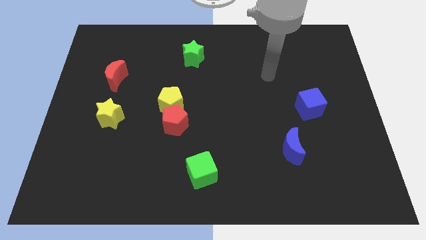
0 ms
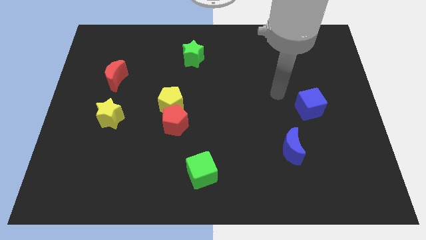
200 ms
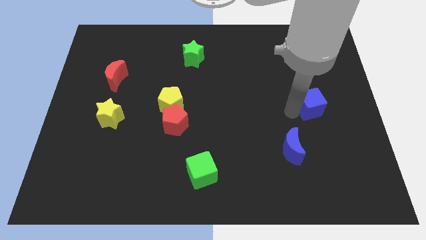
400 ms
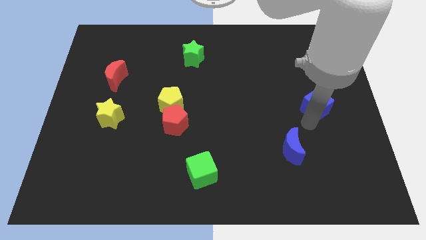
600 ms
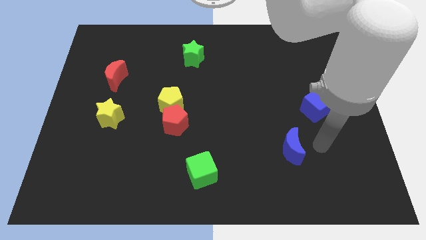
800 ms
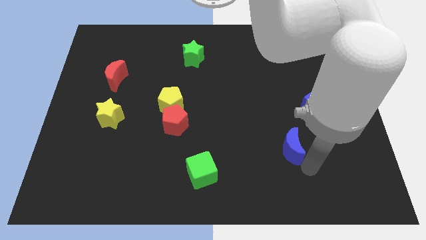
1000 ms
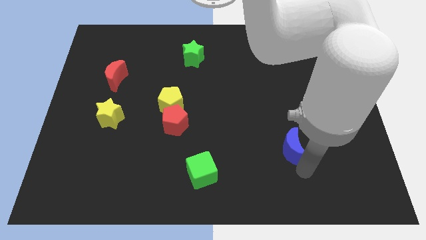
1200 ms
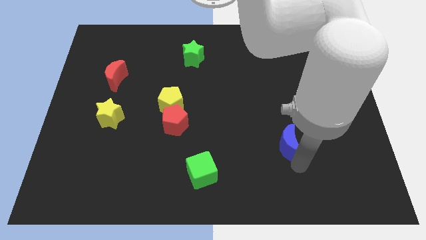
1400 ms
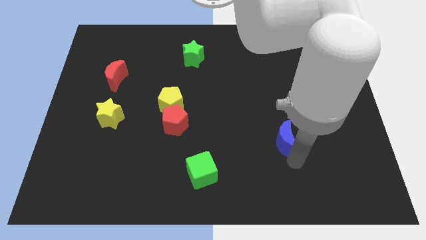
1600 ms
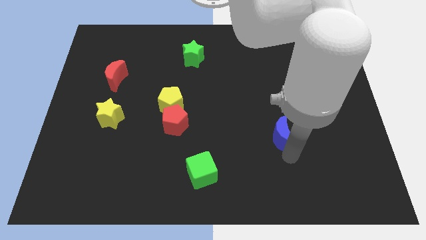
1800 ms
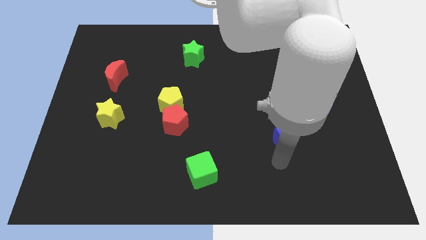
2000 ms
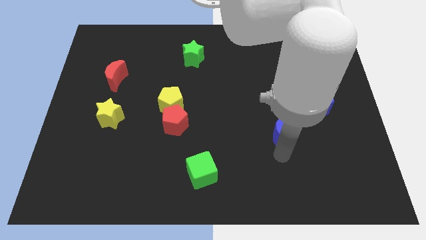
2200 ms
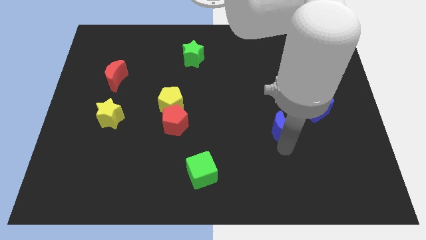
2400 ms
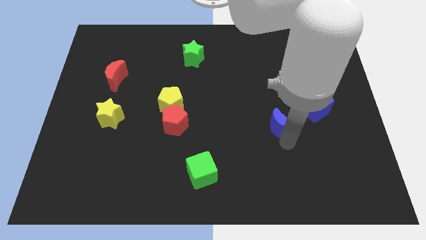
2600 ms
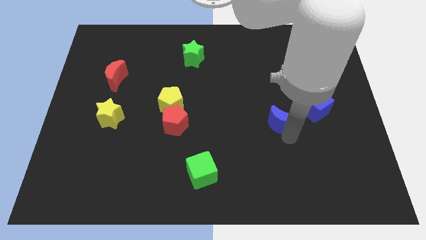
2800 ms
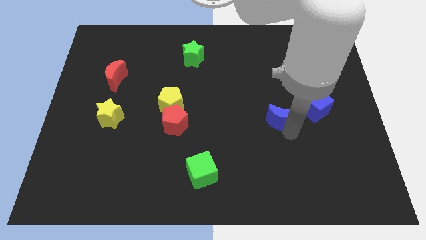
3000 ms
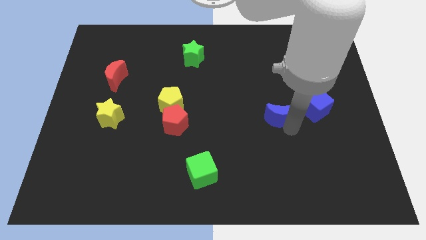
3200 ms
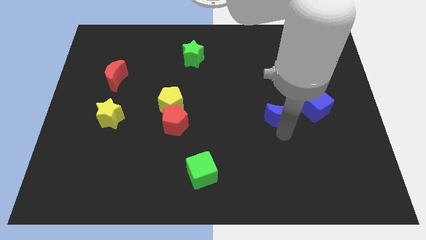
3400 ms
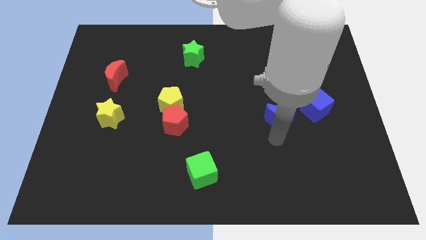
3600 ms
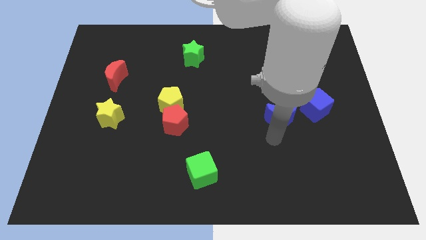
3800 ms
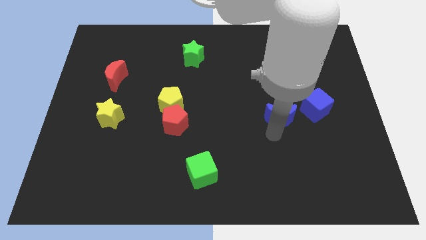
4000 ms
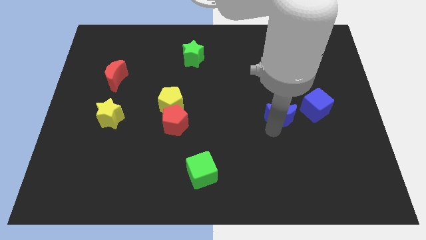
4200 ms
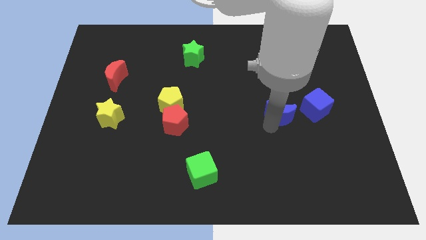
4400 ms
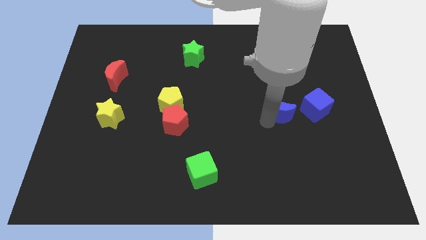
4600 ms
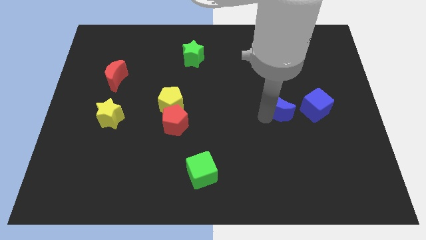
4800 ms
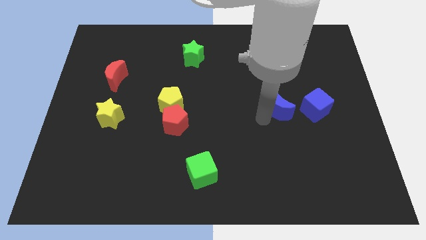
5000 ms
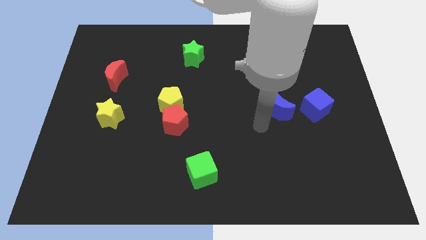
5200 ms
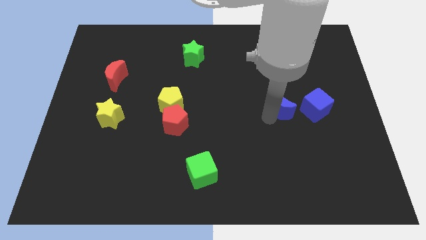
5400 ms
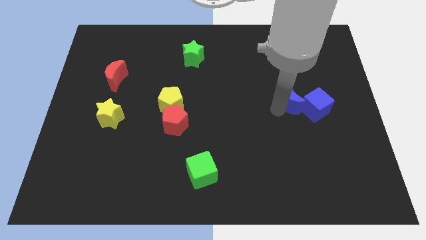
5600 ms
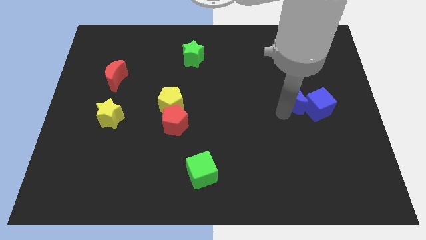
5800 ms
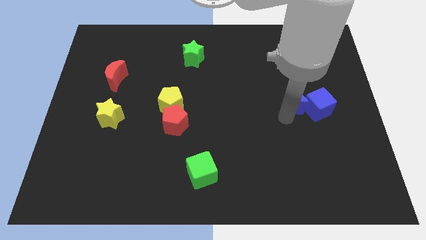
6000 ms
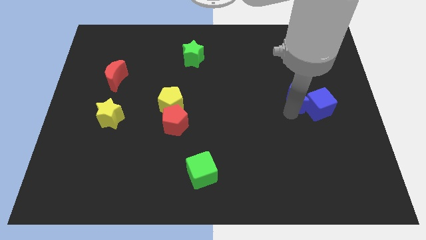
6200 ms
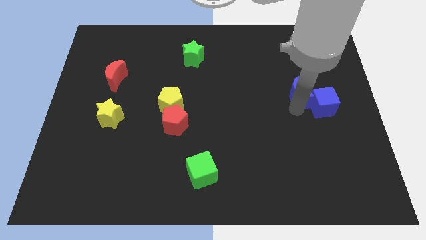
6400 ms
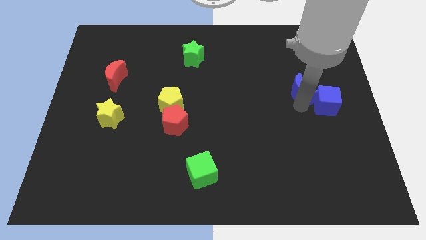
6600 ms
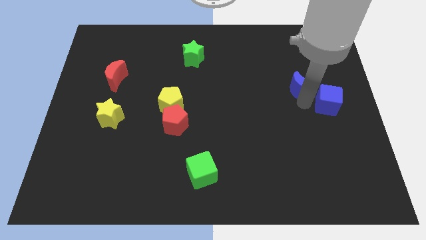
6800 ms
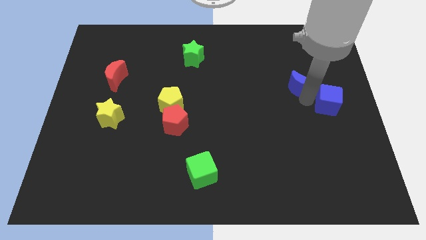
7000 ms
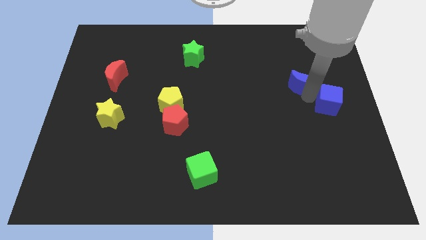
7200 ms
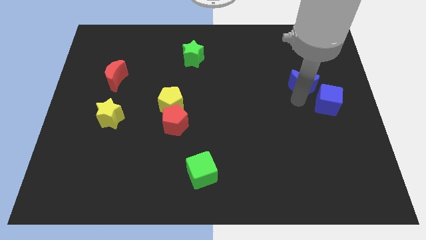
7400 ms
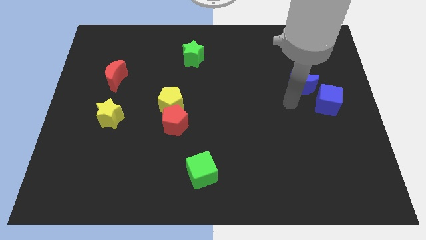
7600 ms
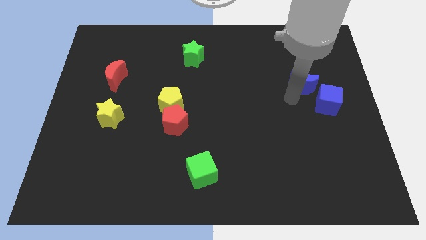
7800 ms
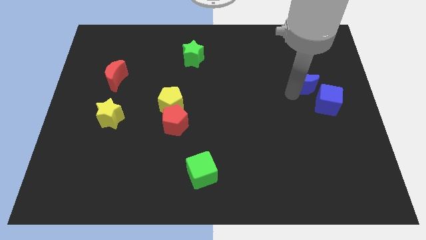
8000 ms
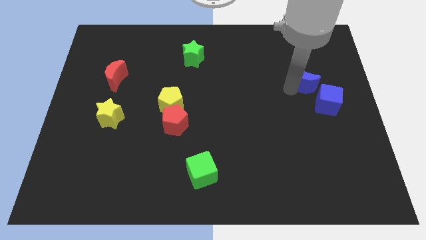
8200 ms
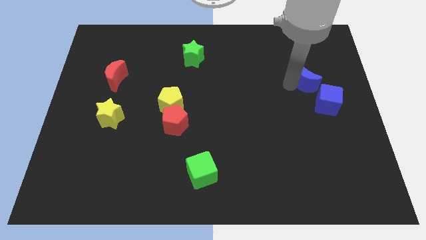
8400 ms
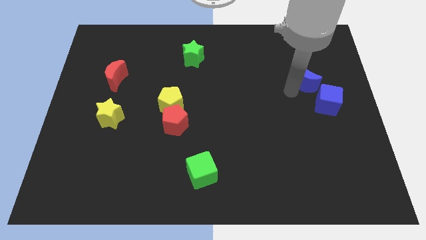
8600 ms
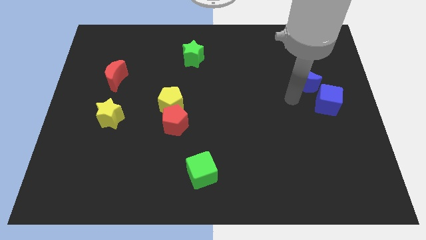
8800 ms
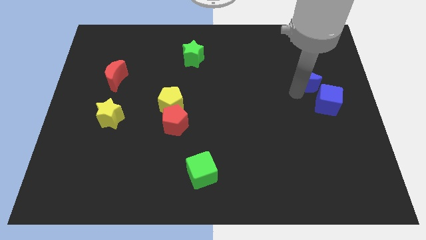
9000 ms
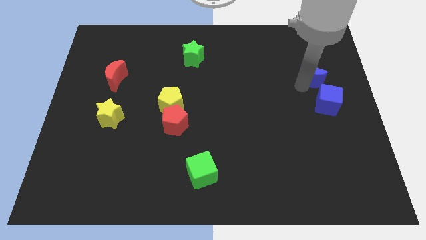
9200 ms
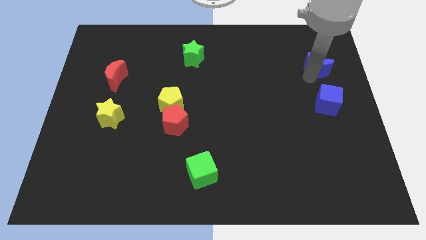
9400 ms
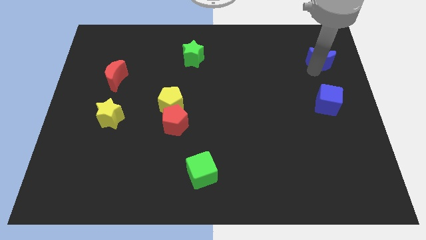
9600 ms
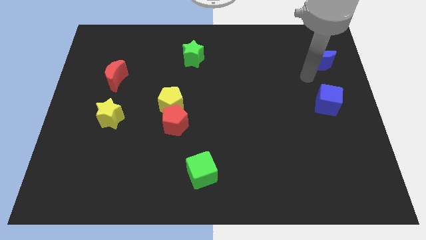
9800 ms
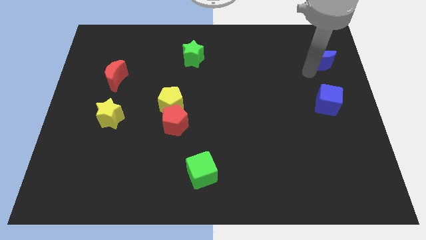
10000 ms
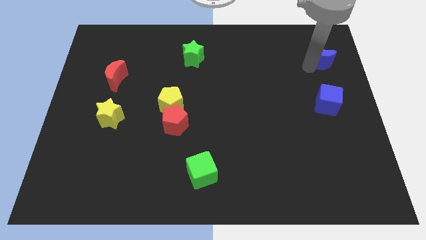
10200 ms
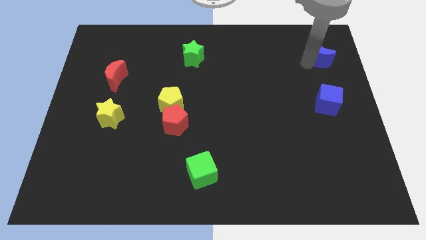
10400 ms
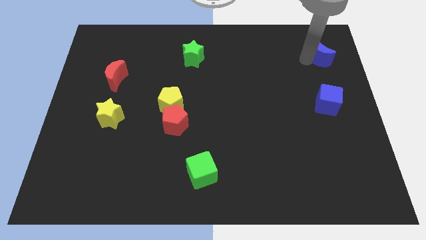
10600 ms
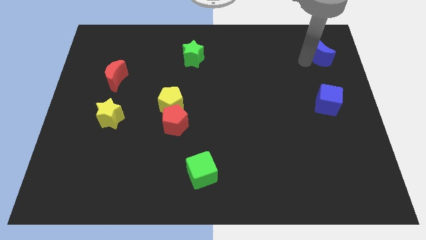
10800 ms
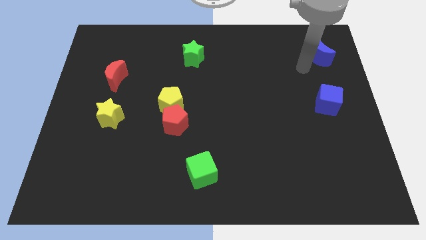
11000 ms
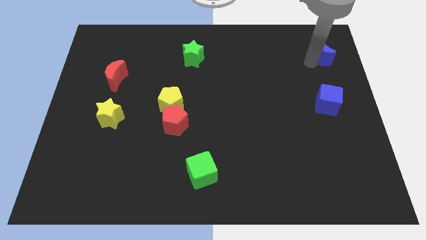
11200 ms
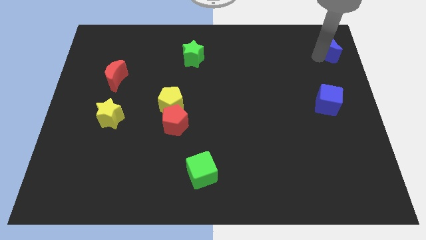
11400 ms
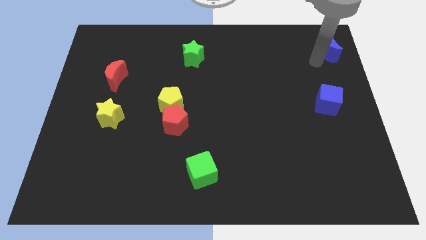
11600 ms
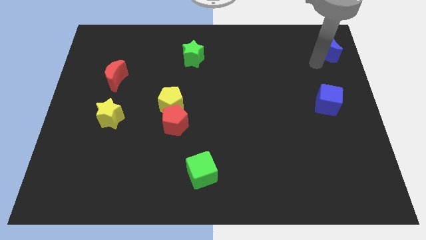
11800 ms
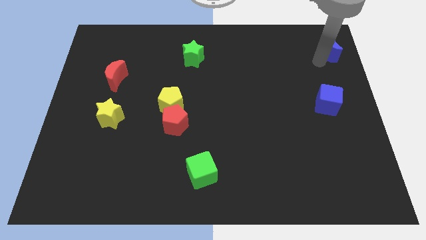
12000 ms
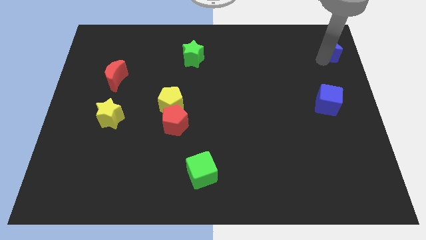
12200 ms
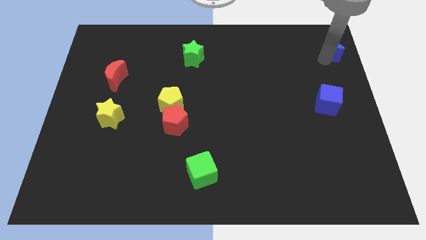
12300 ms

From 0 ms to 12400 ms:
put the blue moon to the top right of the board
